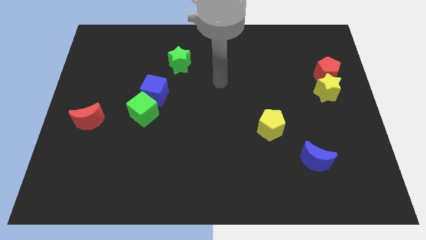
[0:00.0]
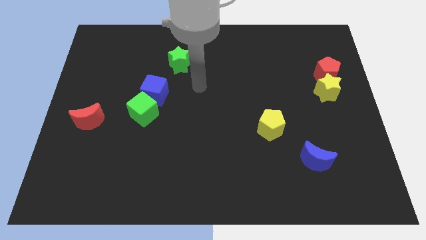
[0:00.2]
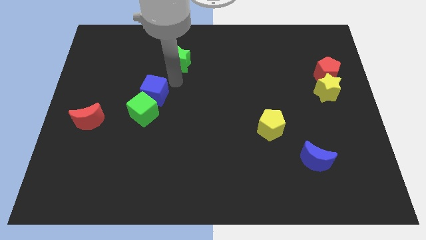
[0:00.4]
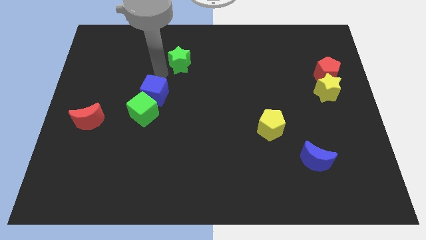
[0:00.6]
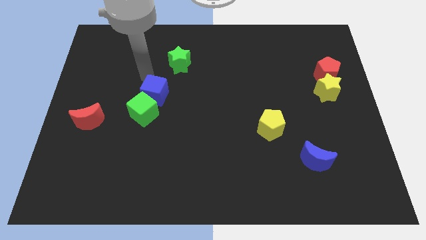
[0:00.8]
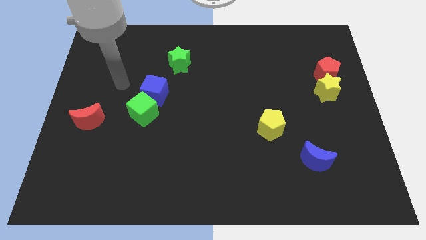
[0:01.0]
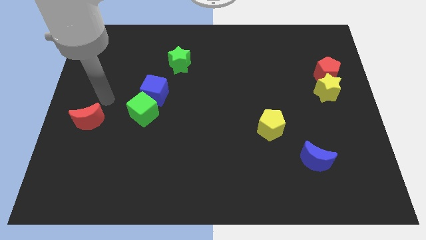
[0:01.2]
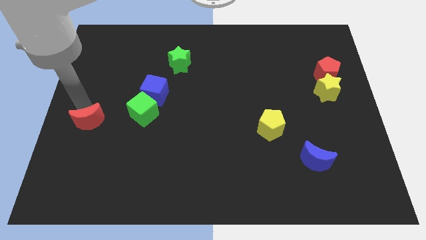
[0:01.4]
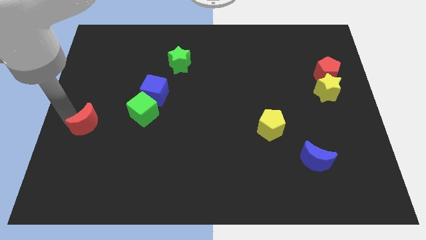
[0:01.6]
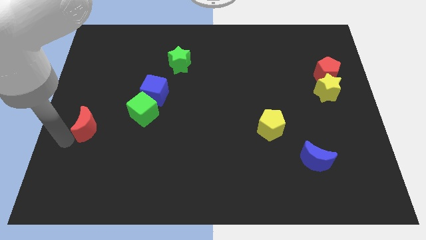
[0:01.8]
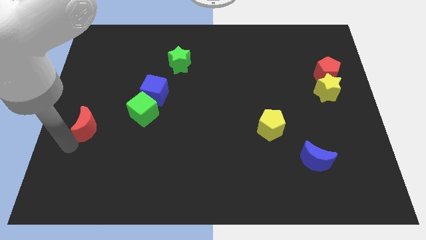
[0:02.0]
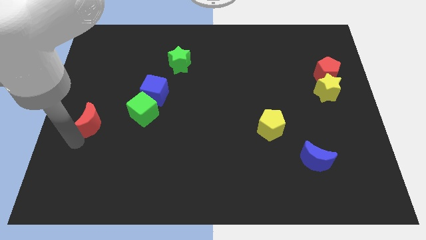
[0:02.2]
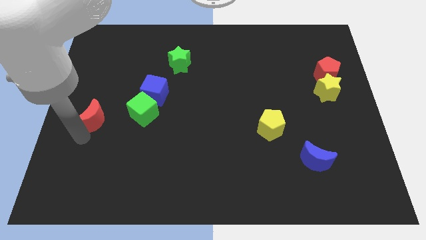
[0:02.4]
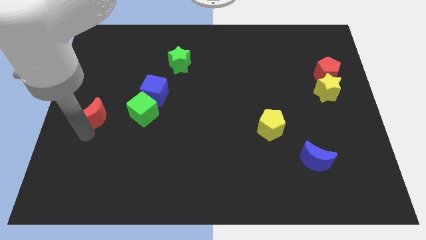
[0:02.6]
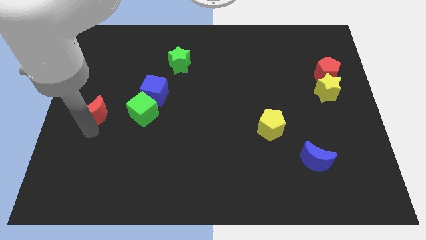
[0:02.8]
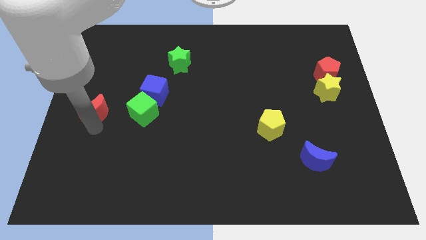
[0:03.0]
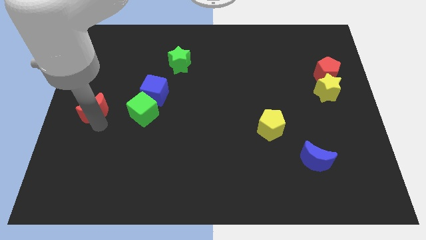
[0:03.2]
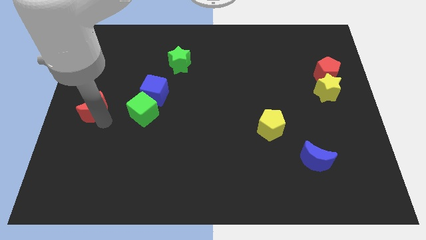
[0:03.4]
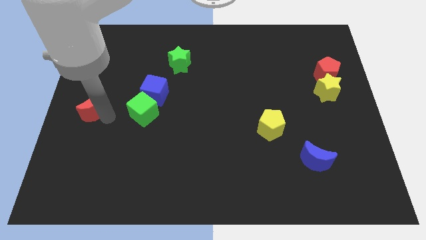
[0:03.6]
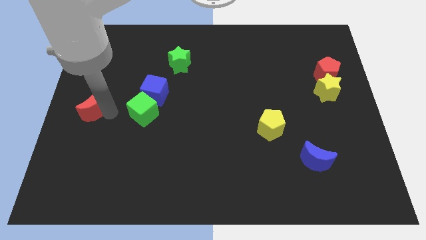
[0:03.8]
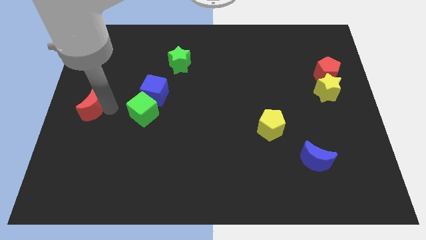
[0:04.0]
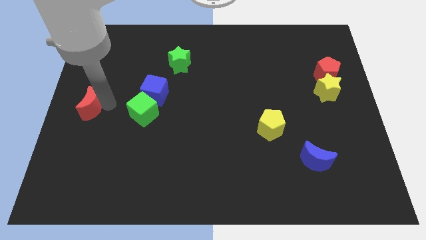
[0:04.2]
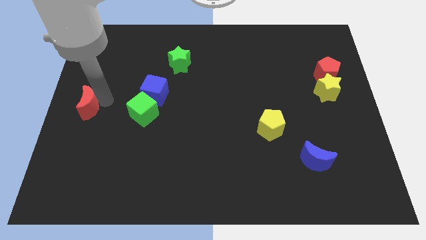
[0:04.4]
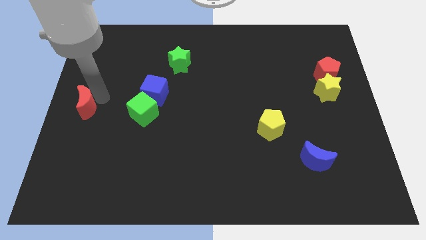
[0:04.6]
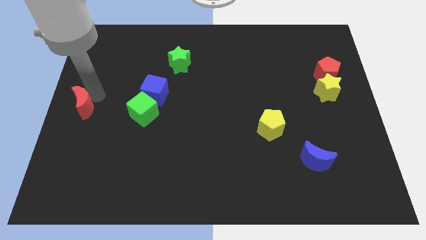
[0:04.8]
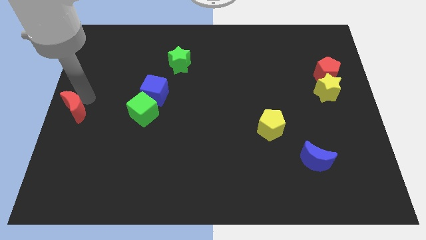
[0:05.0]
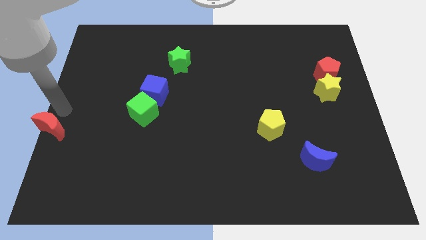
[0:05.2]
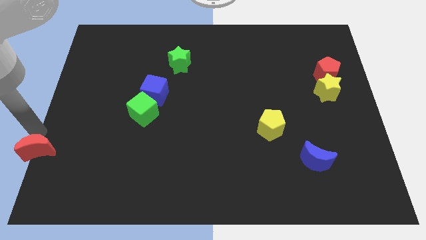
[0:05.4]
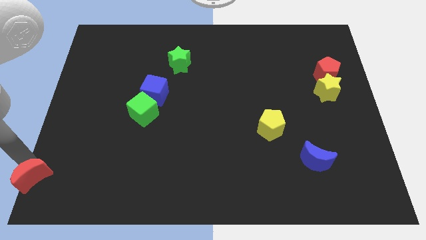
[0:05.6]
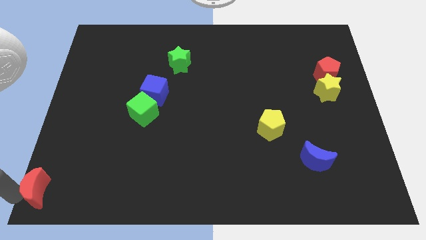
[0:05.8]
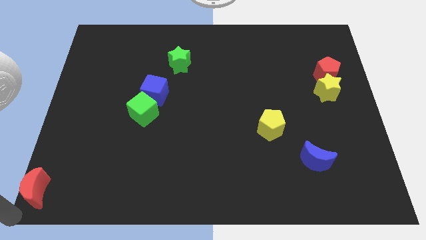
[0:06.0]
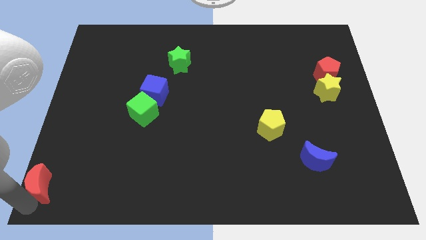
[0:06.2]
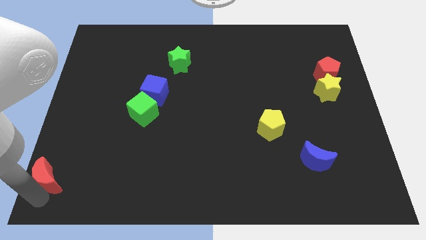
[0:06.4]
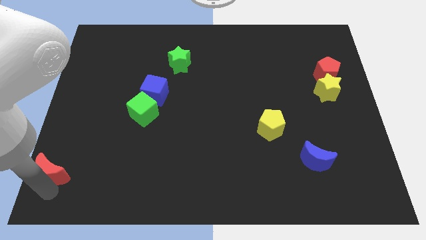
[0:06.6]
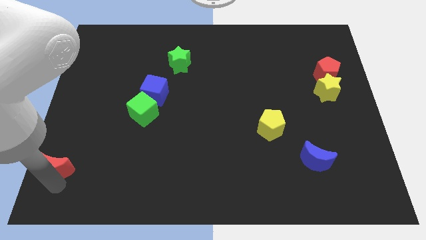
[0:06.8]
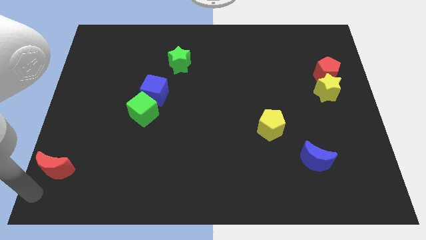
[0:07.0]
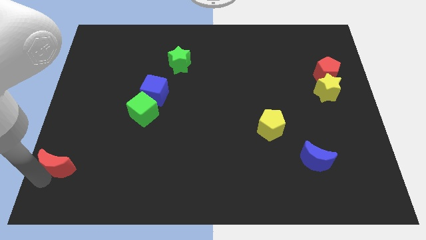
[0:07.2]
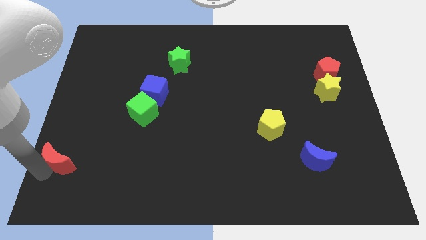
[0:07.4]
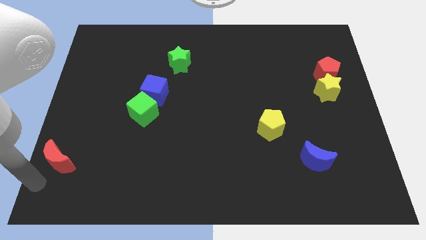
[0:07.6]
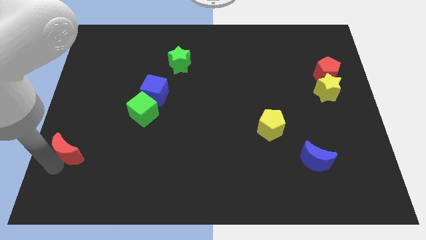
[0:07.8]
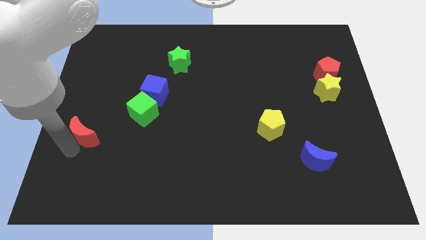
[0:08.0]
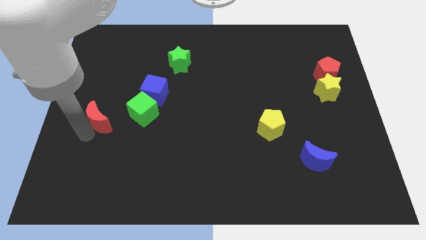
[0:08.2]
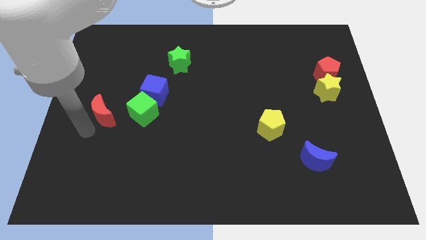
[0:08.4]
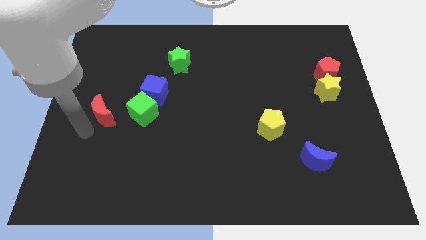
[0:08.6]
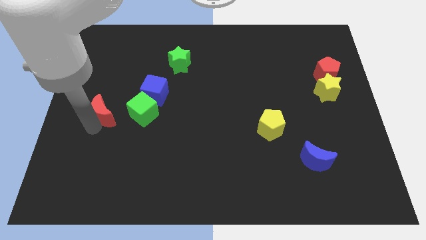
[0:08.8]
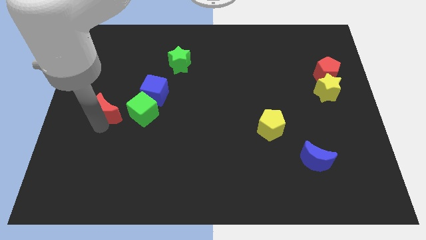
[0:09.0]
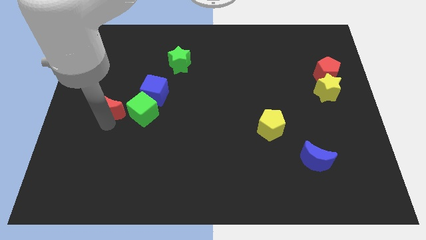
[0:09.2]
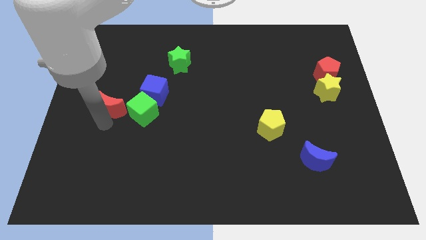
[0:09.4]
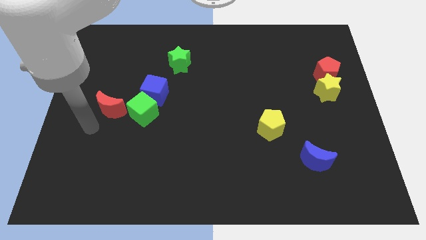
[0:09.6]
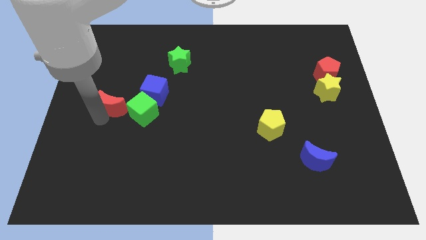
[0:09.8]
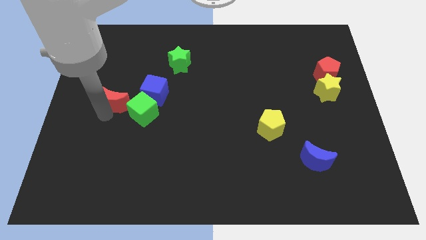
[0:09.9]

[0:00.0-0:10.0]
move the red moon a bit upwards and right diagonally

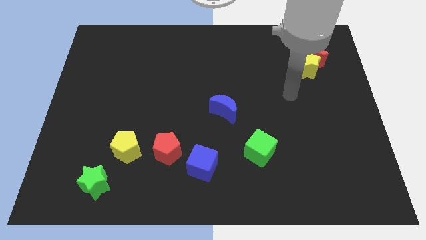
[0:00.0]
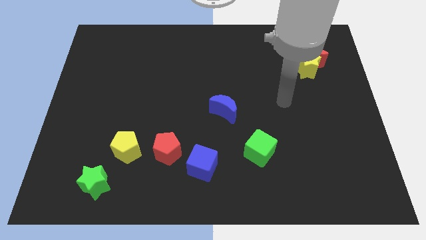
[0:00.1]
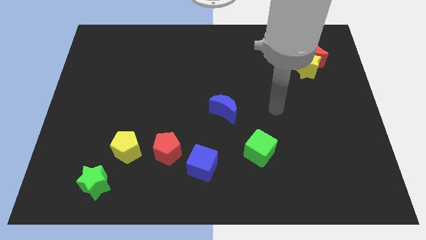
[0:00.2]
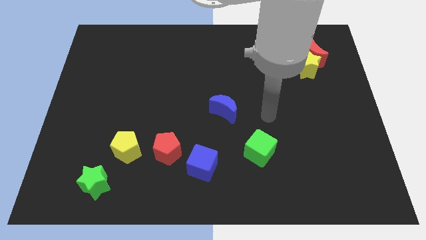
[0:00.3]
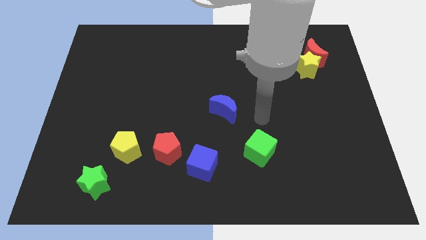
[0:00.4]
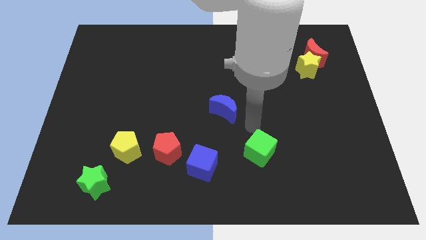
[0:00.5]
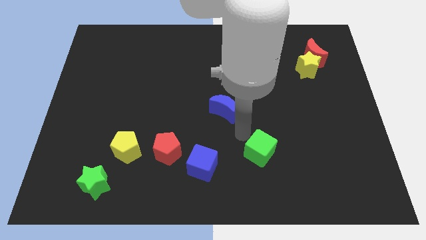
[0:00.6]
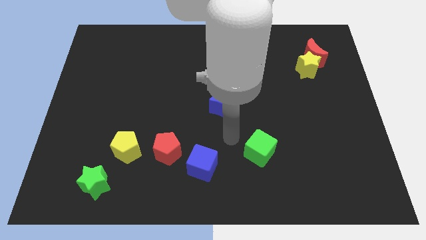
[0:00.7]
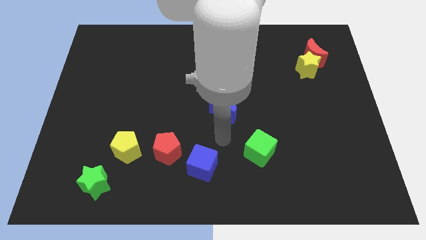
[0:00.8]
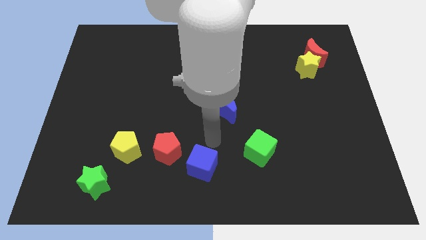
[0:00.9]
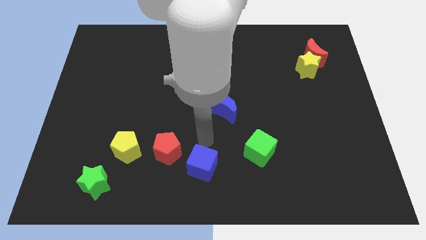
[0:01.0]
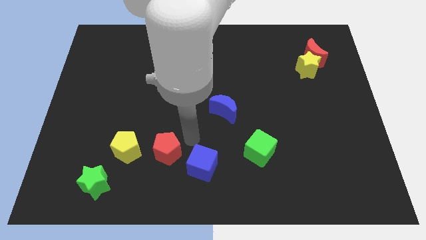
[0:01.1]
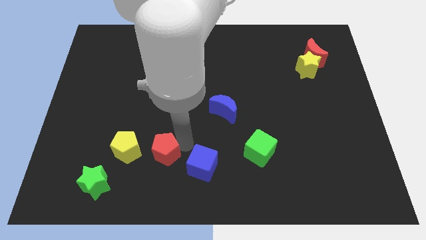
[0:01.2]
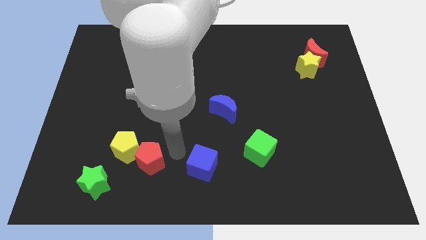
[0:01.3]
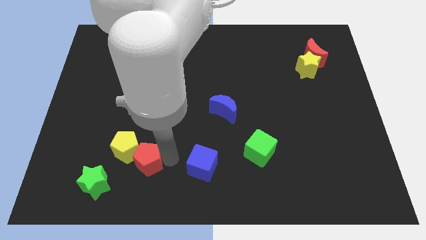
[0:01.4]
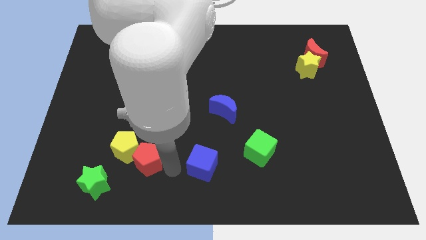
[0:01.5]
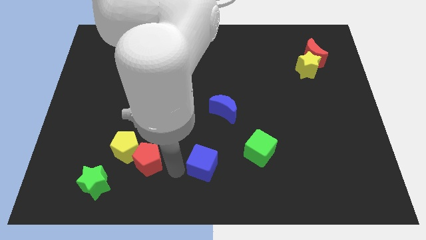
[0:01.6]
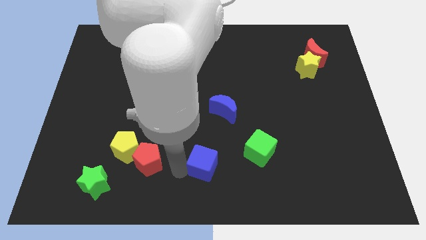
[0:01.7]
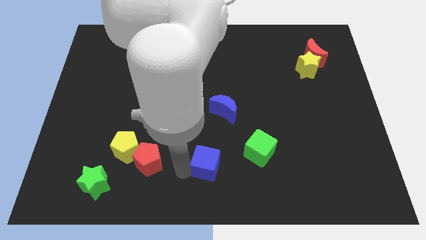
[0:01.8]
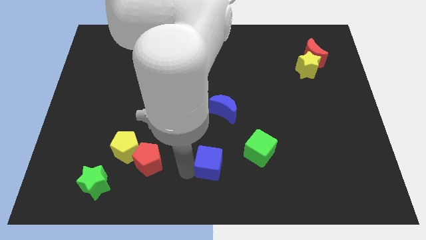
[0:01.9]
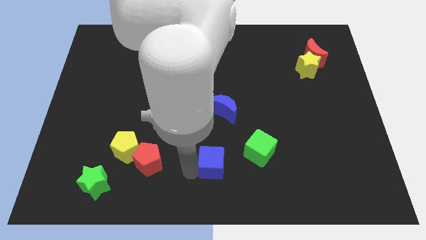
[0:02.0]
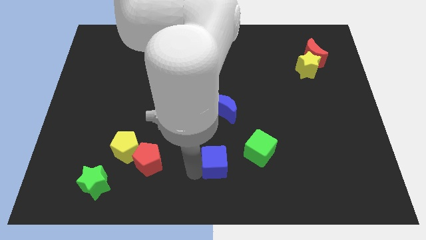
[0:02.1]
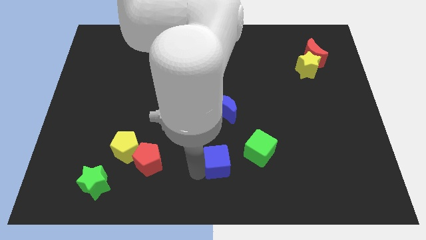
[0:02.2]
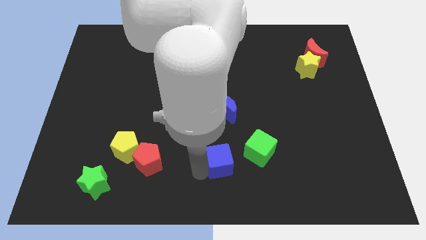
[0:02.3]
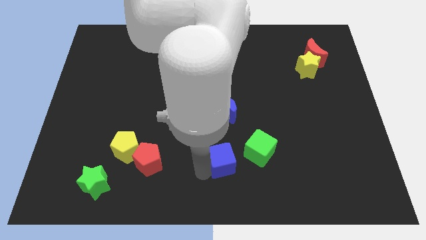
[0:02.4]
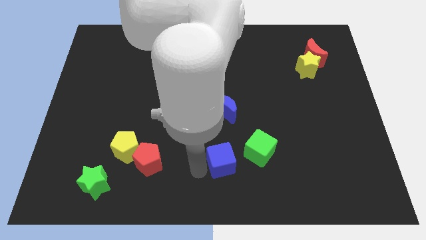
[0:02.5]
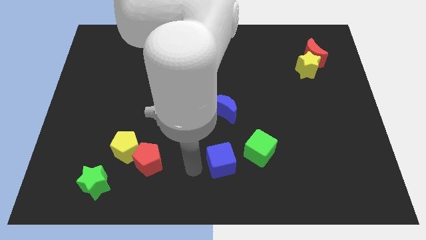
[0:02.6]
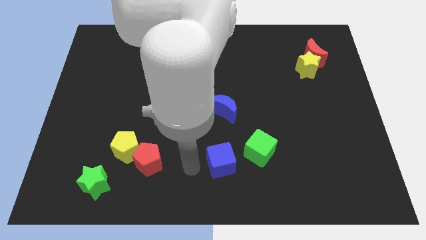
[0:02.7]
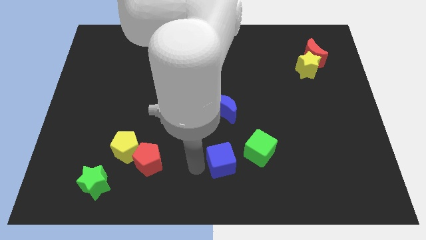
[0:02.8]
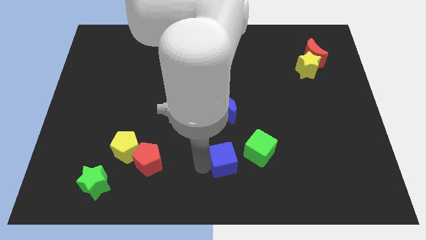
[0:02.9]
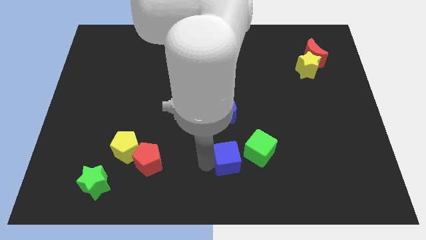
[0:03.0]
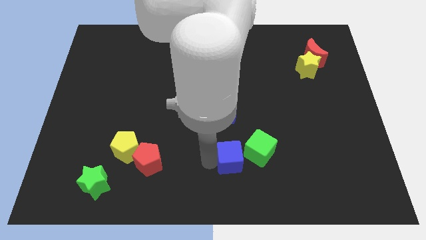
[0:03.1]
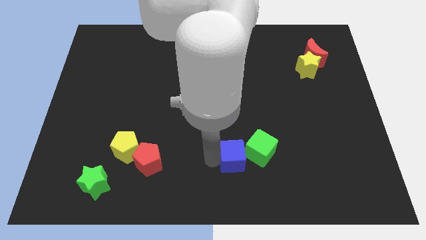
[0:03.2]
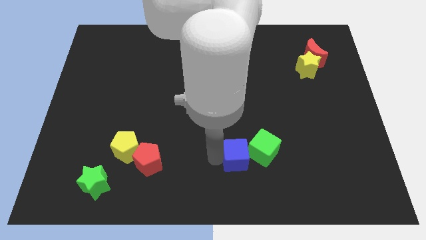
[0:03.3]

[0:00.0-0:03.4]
slide the blue cube a little to the right
